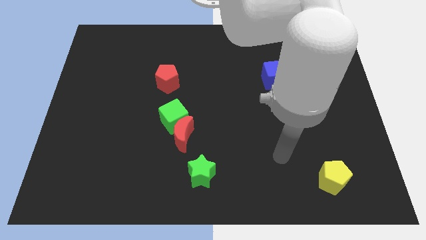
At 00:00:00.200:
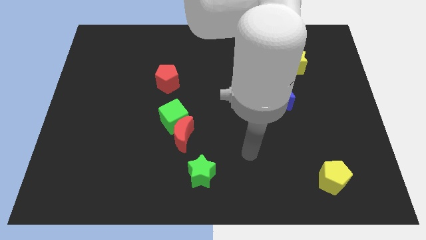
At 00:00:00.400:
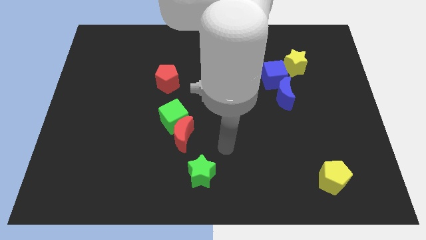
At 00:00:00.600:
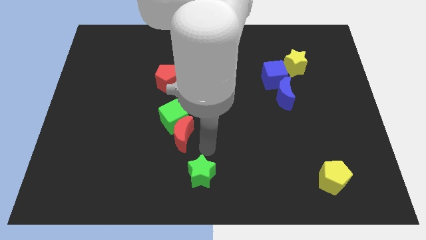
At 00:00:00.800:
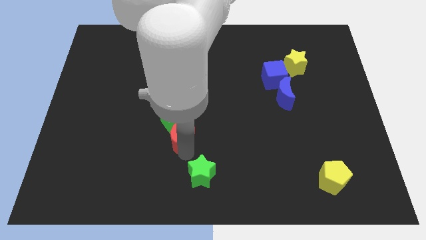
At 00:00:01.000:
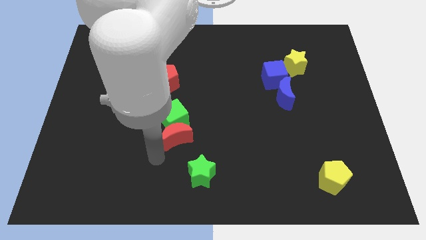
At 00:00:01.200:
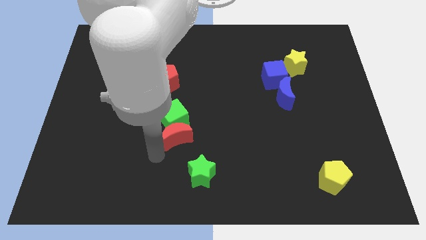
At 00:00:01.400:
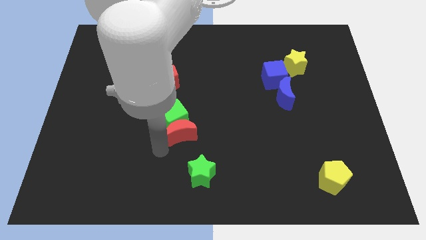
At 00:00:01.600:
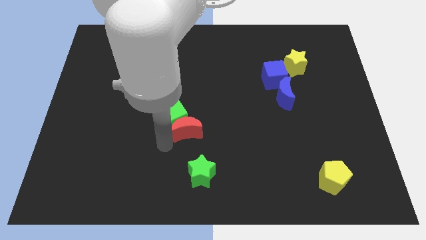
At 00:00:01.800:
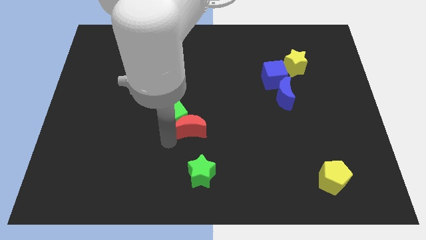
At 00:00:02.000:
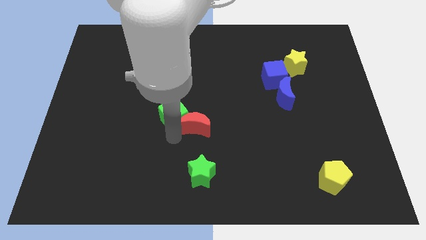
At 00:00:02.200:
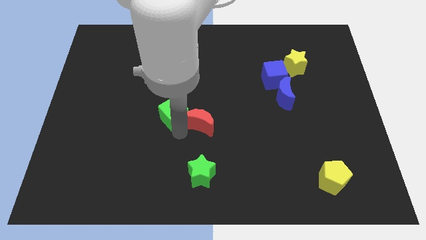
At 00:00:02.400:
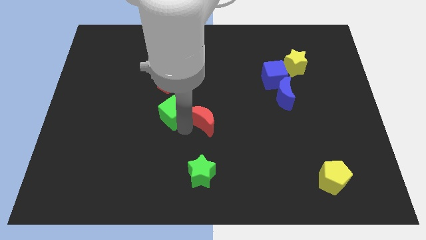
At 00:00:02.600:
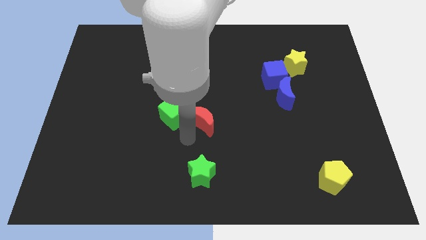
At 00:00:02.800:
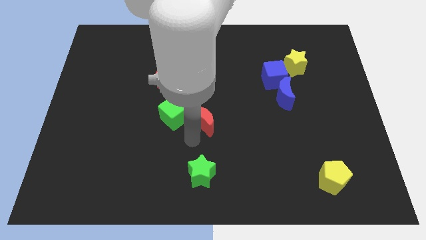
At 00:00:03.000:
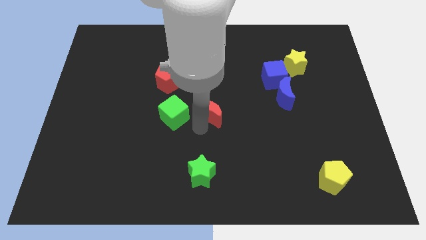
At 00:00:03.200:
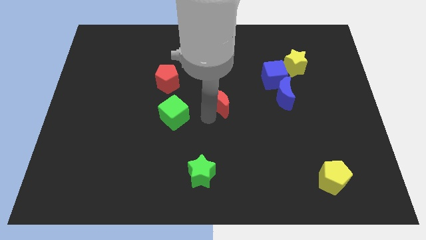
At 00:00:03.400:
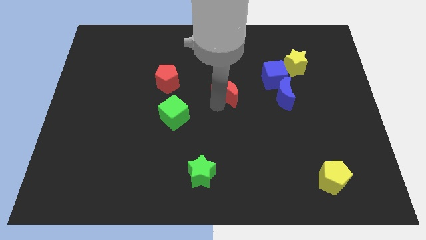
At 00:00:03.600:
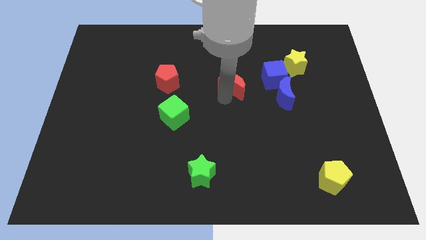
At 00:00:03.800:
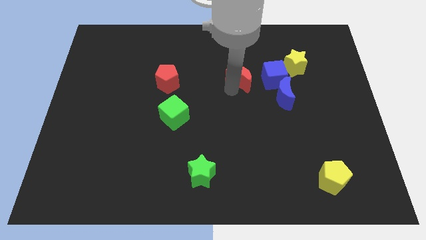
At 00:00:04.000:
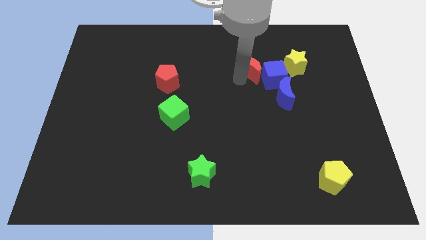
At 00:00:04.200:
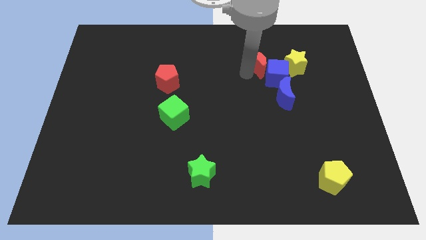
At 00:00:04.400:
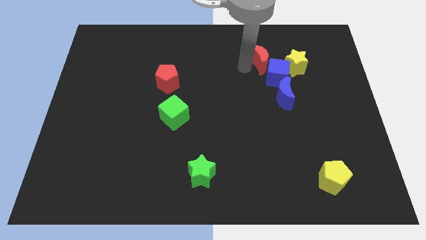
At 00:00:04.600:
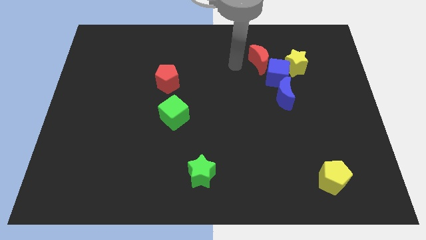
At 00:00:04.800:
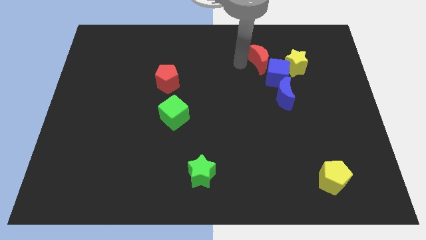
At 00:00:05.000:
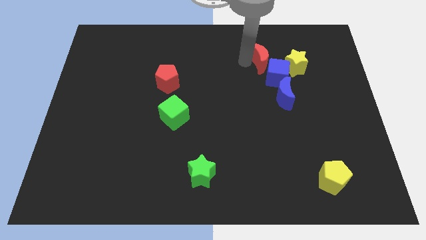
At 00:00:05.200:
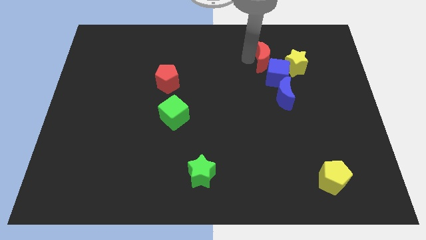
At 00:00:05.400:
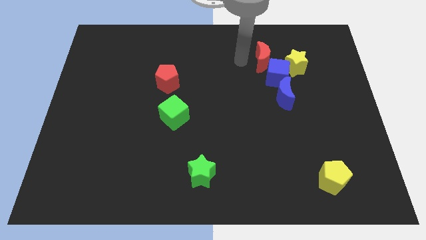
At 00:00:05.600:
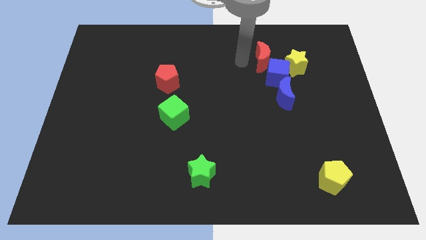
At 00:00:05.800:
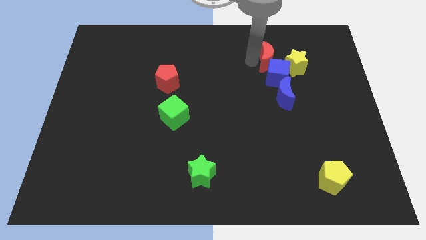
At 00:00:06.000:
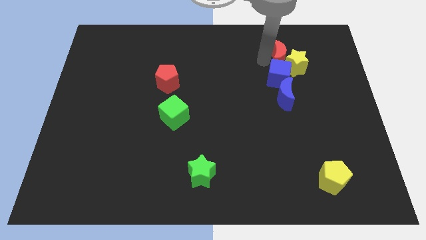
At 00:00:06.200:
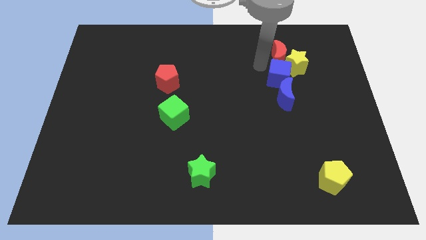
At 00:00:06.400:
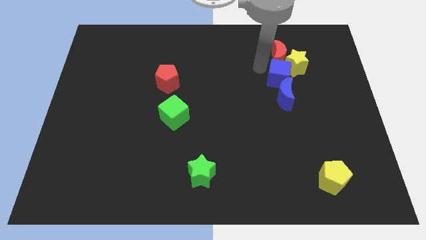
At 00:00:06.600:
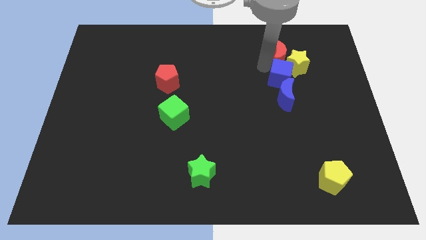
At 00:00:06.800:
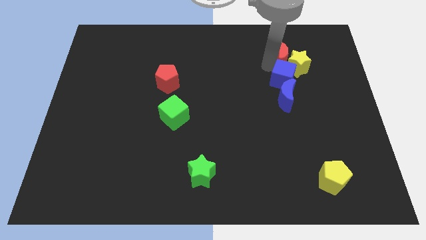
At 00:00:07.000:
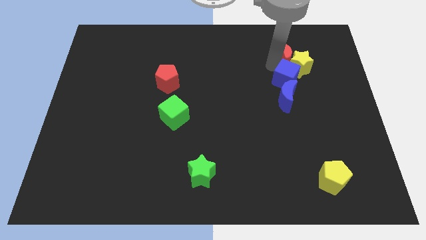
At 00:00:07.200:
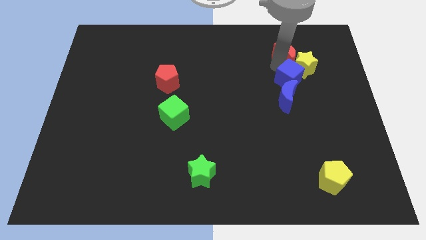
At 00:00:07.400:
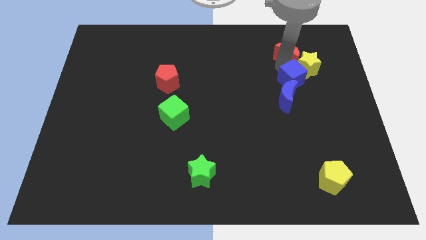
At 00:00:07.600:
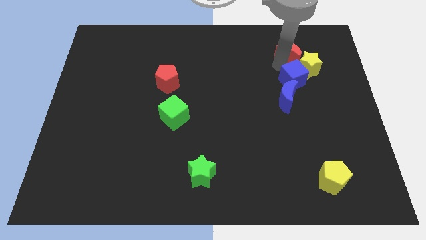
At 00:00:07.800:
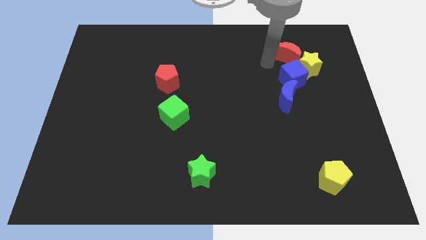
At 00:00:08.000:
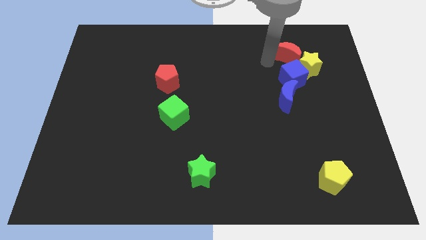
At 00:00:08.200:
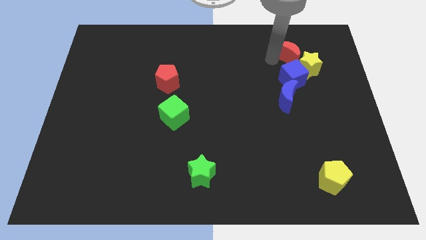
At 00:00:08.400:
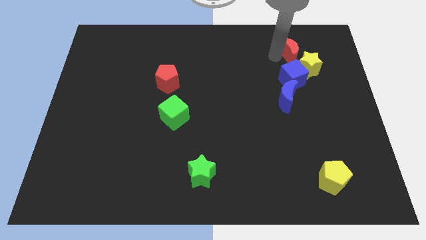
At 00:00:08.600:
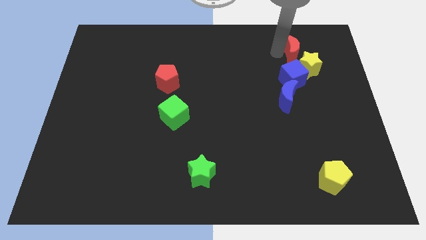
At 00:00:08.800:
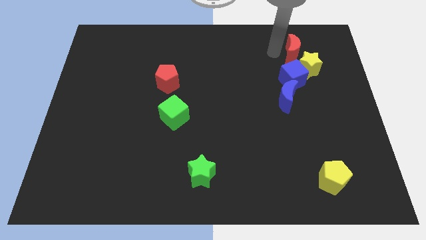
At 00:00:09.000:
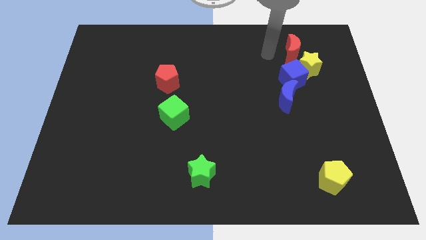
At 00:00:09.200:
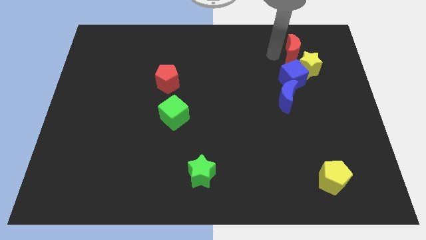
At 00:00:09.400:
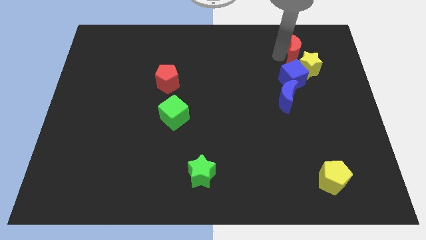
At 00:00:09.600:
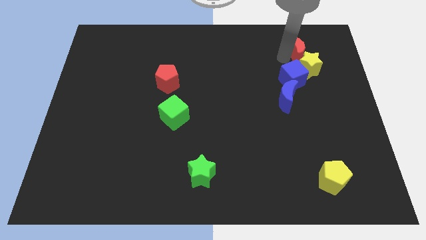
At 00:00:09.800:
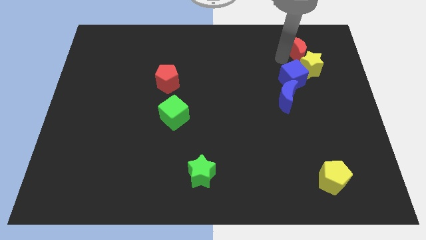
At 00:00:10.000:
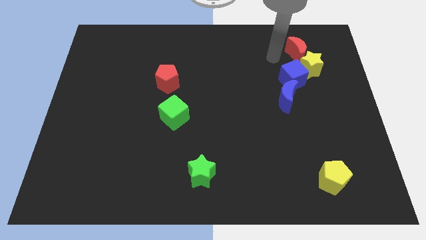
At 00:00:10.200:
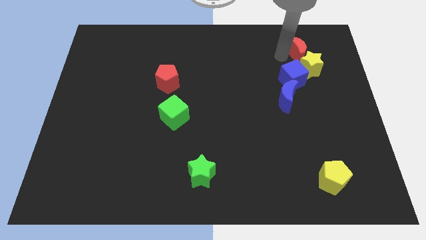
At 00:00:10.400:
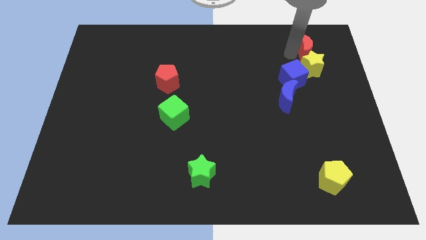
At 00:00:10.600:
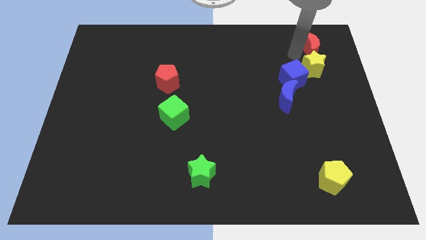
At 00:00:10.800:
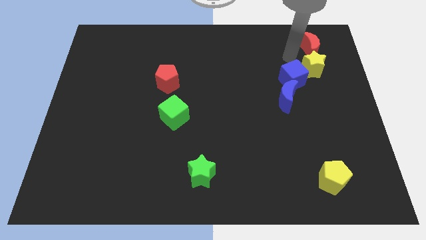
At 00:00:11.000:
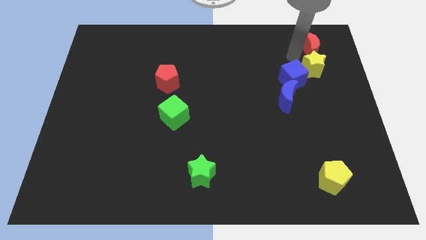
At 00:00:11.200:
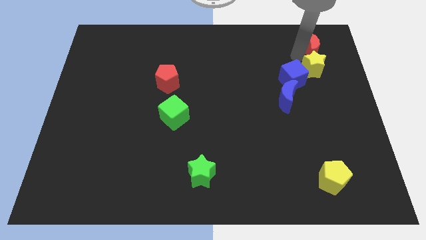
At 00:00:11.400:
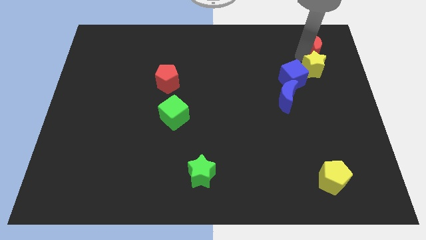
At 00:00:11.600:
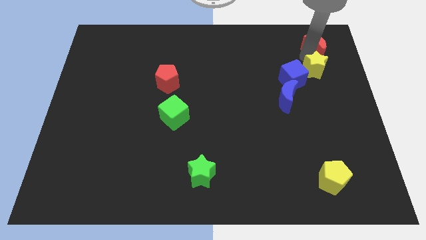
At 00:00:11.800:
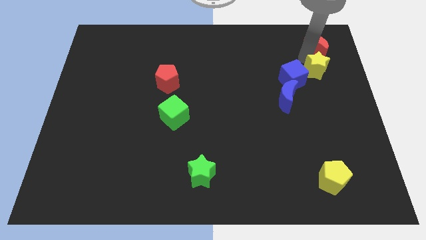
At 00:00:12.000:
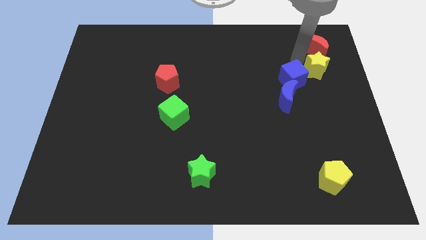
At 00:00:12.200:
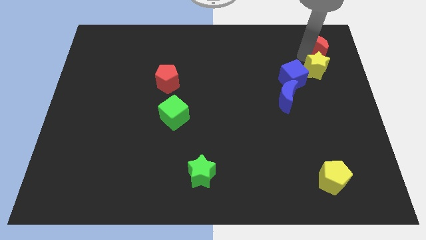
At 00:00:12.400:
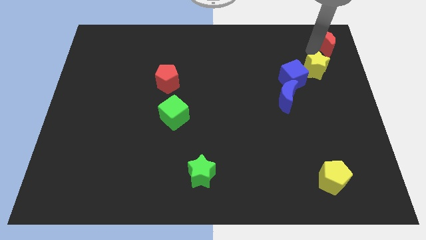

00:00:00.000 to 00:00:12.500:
put the red moon to the top right corner
